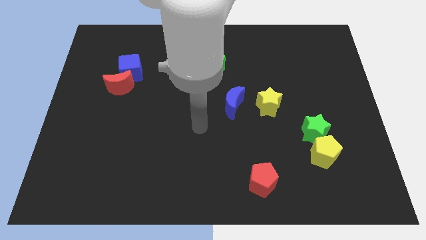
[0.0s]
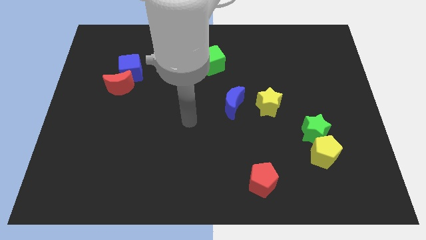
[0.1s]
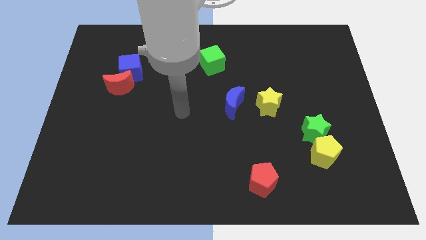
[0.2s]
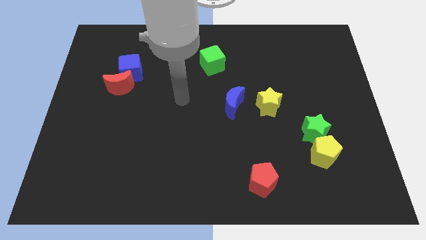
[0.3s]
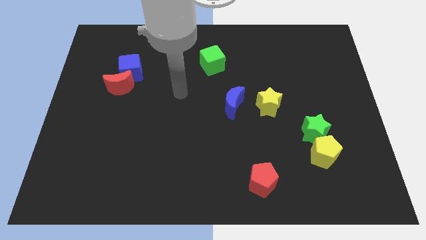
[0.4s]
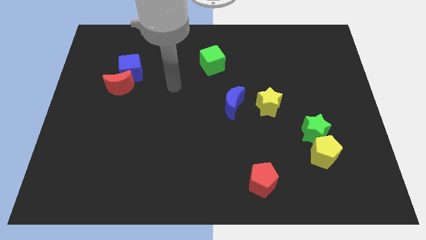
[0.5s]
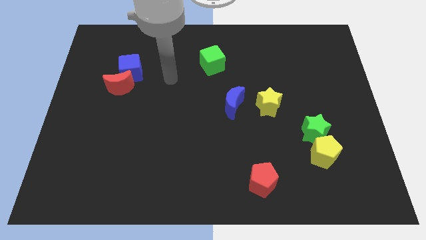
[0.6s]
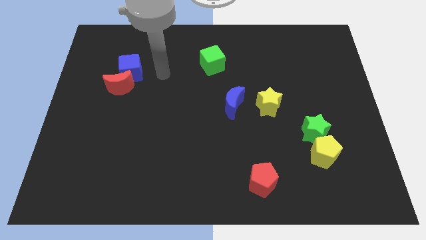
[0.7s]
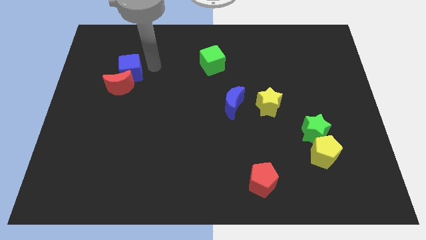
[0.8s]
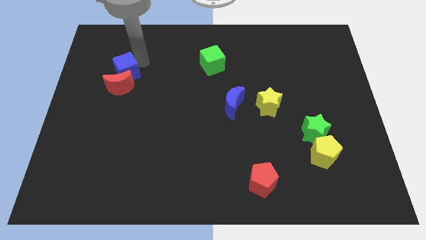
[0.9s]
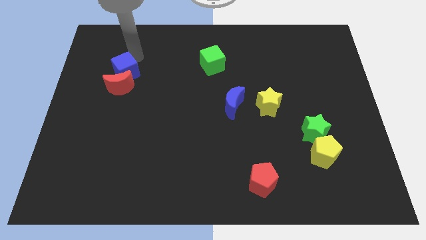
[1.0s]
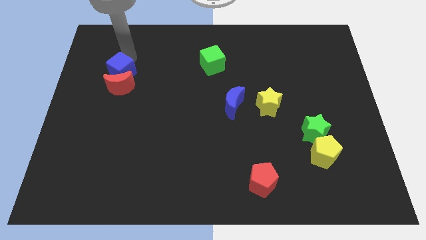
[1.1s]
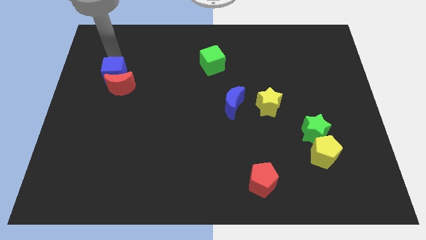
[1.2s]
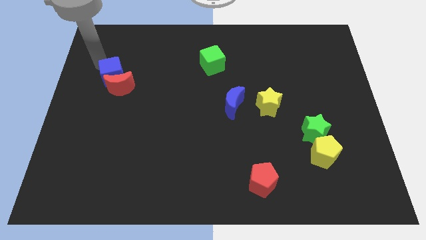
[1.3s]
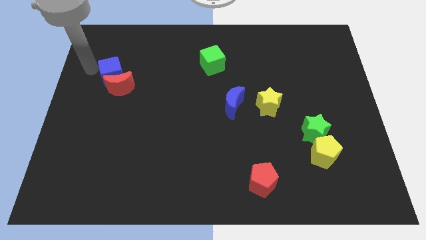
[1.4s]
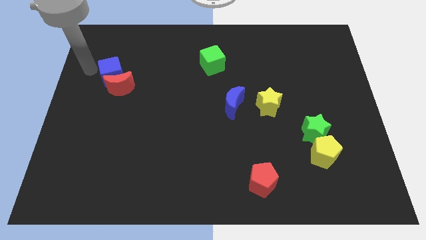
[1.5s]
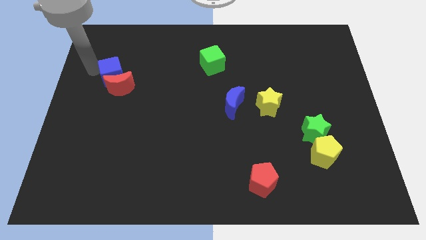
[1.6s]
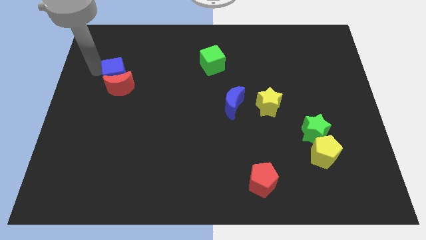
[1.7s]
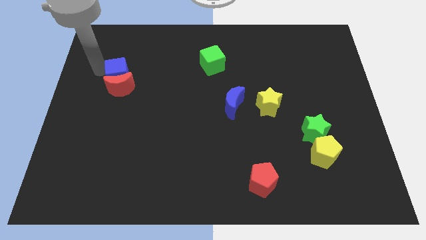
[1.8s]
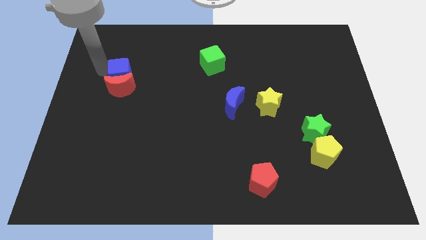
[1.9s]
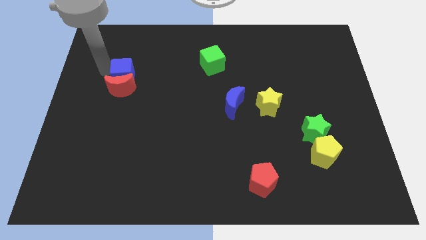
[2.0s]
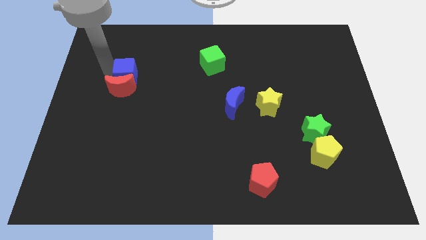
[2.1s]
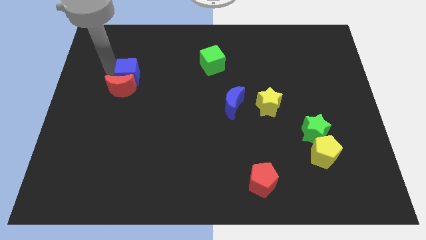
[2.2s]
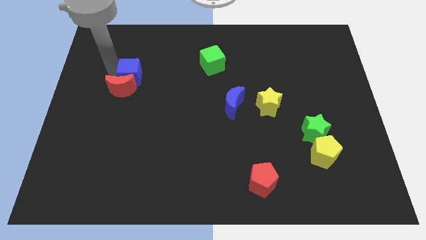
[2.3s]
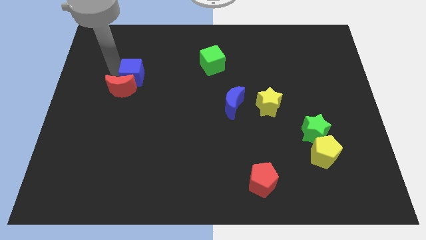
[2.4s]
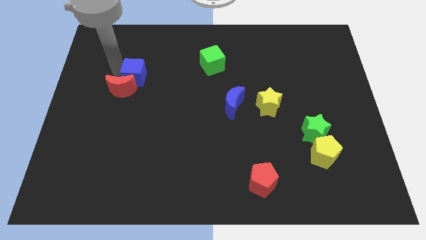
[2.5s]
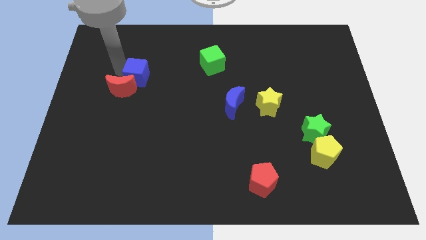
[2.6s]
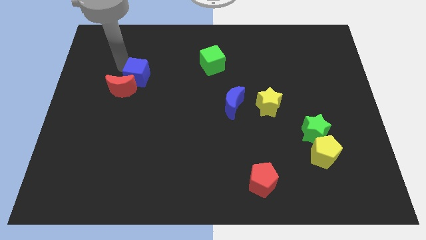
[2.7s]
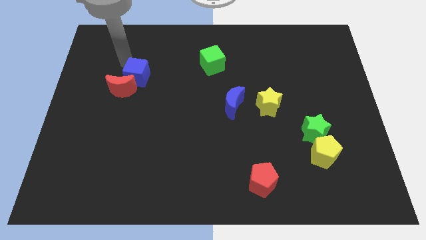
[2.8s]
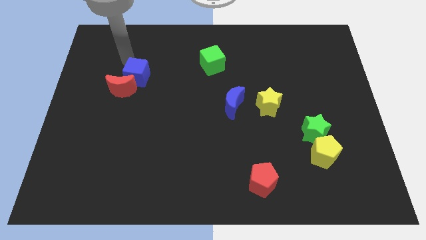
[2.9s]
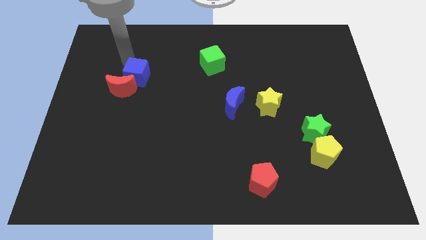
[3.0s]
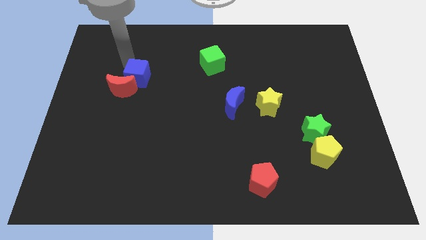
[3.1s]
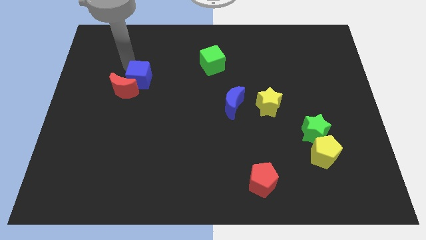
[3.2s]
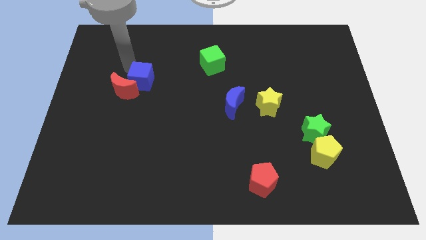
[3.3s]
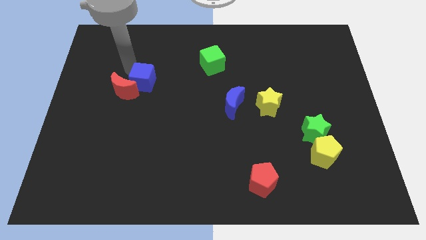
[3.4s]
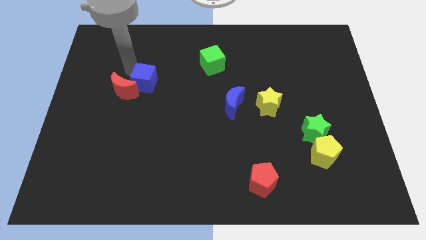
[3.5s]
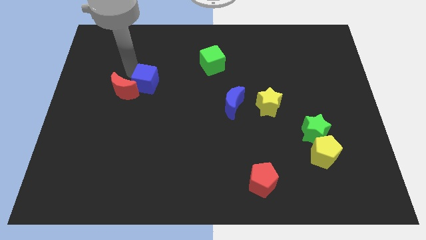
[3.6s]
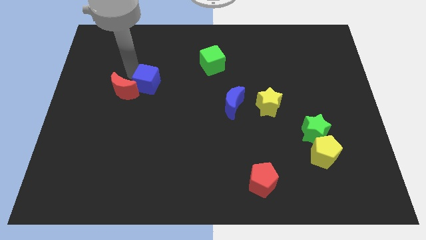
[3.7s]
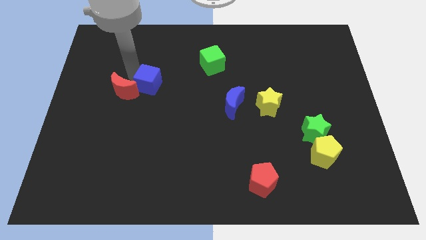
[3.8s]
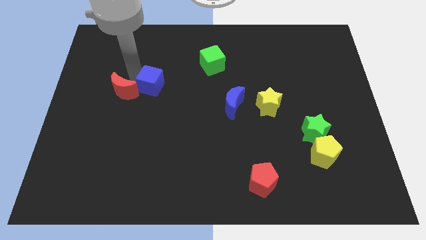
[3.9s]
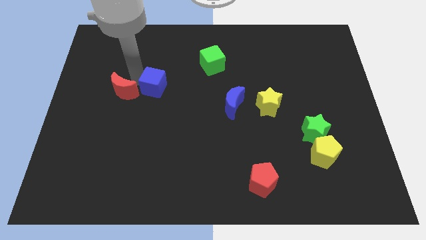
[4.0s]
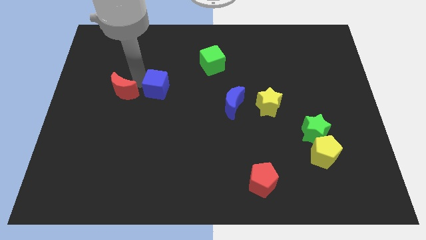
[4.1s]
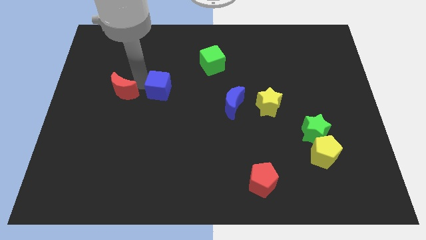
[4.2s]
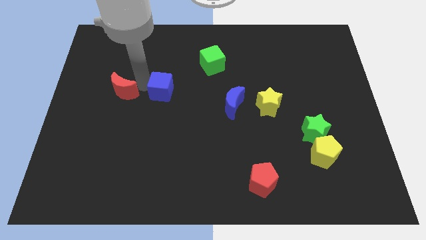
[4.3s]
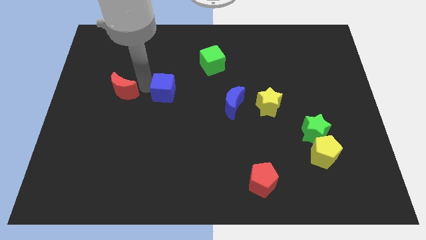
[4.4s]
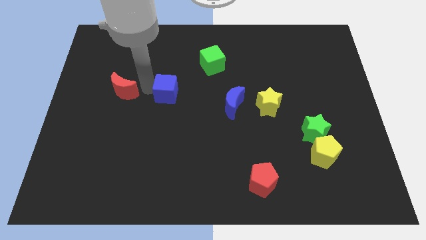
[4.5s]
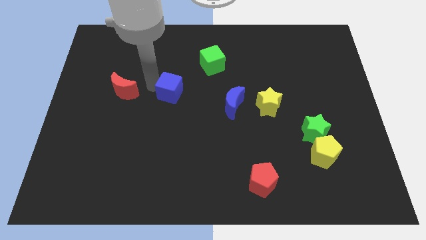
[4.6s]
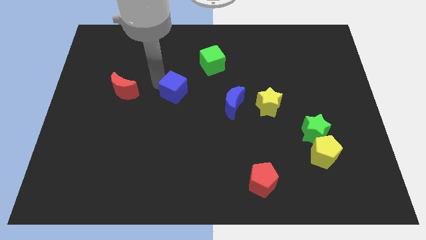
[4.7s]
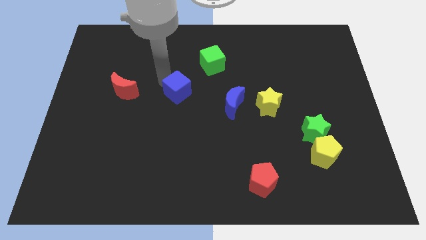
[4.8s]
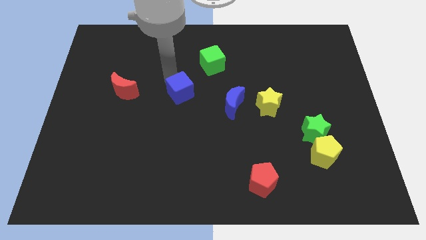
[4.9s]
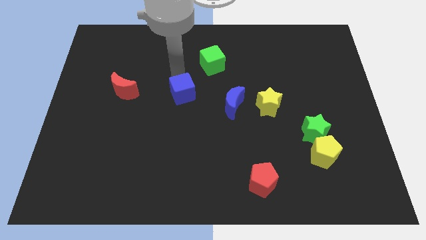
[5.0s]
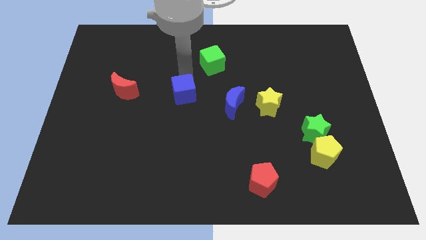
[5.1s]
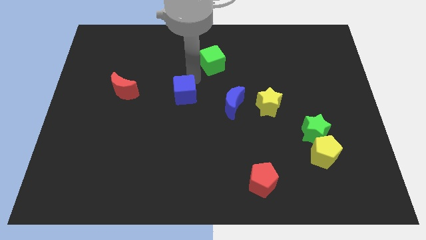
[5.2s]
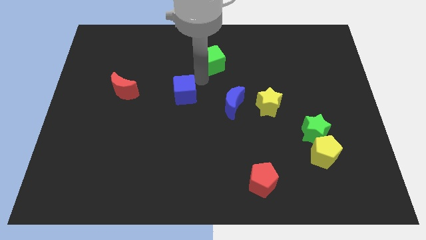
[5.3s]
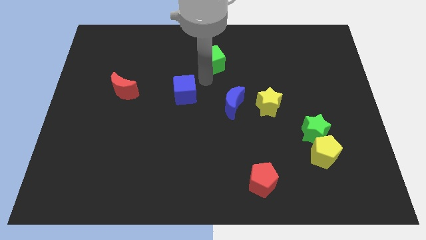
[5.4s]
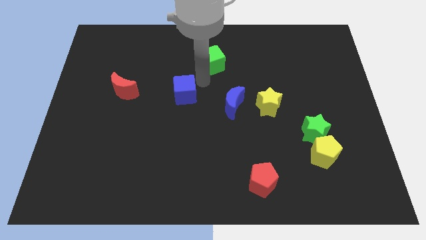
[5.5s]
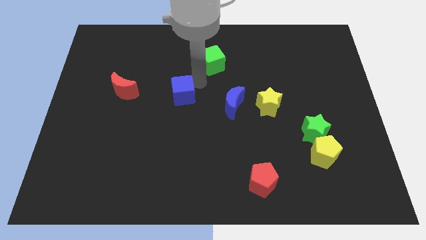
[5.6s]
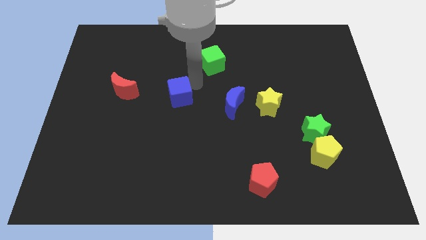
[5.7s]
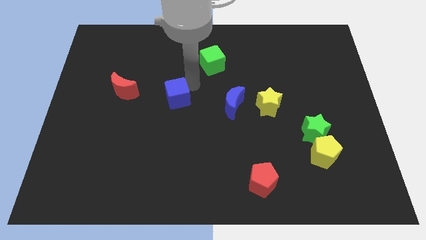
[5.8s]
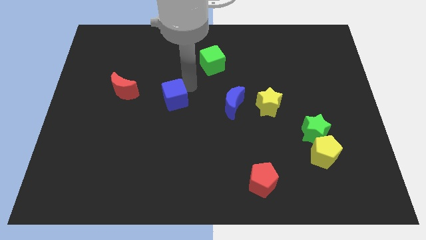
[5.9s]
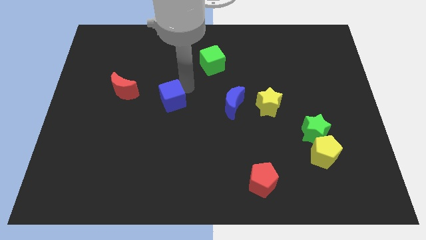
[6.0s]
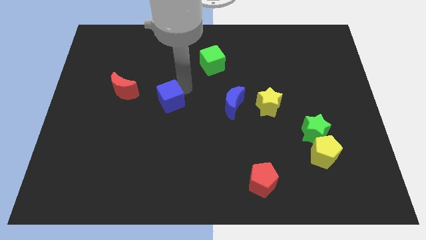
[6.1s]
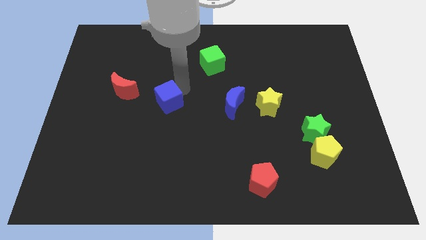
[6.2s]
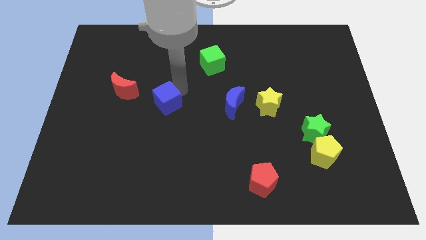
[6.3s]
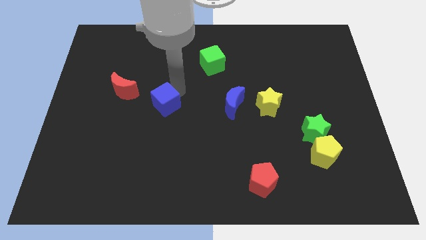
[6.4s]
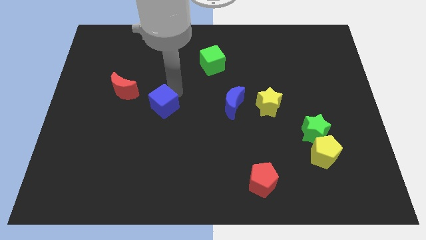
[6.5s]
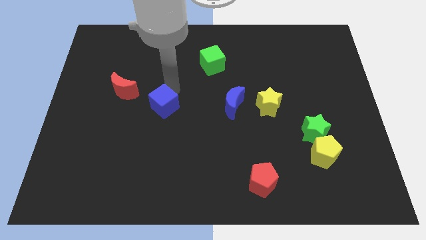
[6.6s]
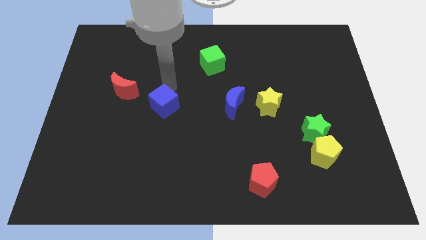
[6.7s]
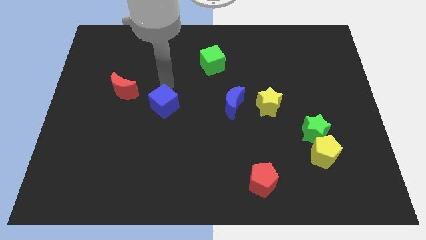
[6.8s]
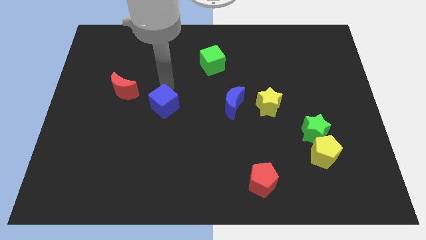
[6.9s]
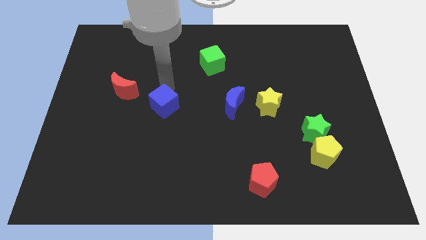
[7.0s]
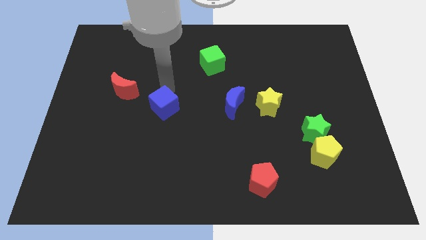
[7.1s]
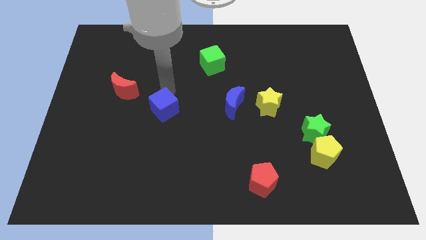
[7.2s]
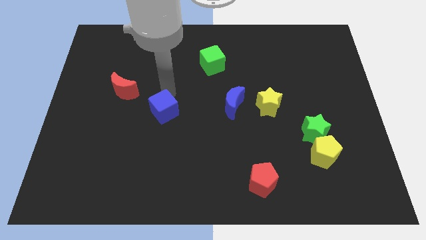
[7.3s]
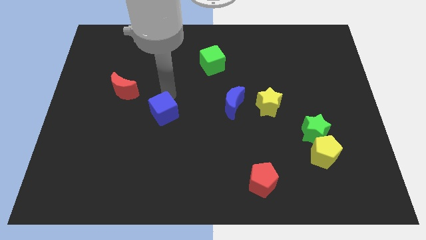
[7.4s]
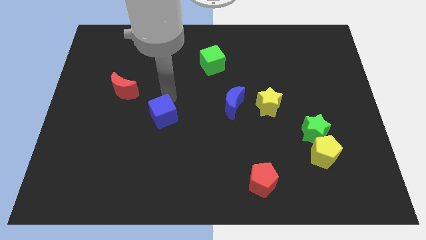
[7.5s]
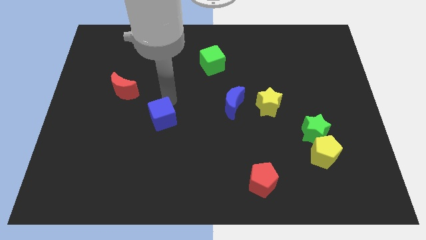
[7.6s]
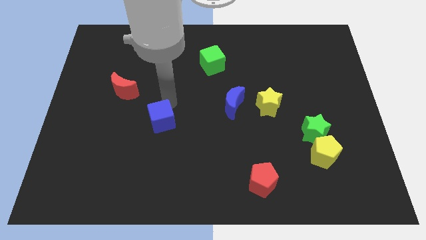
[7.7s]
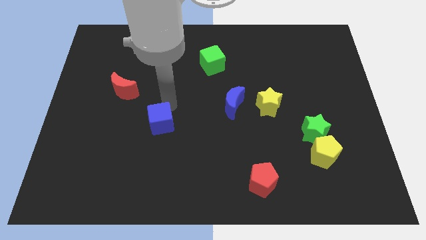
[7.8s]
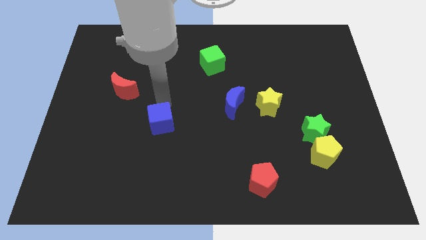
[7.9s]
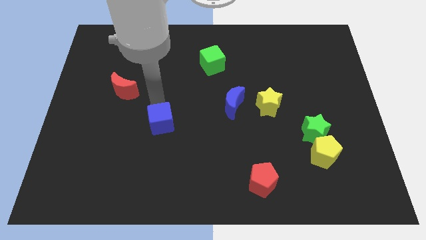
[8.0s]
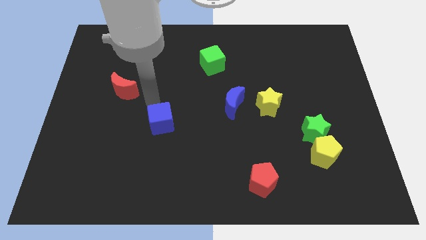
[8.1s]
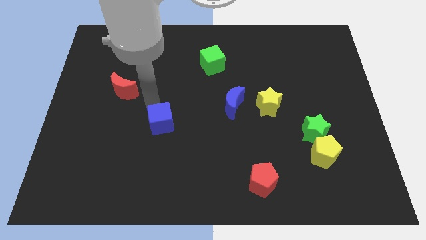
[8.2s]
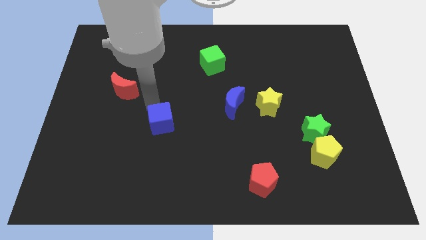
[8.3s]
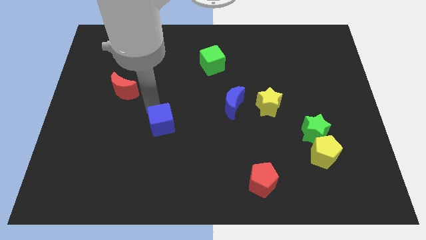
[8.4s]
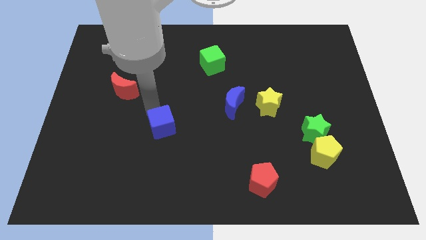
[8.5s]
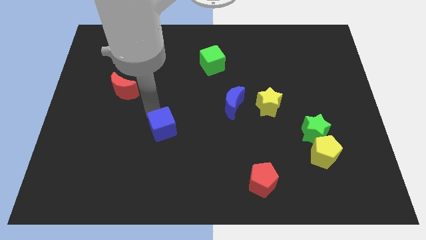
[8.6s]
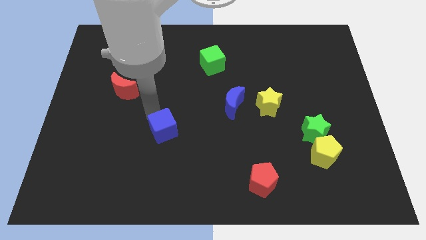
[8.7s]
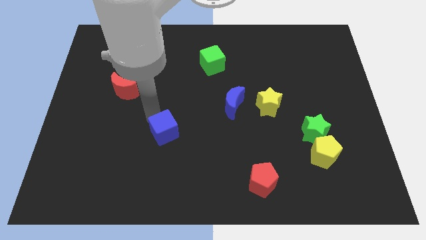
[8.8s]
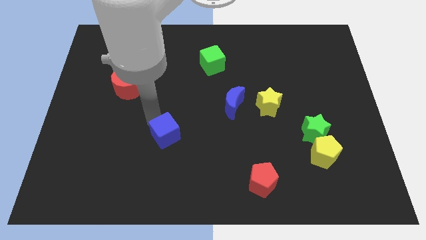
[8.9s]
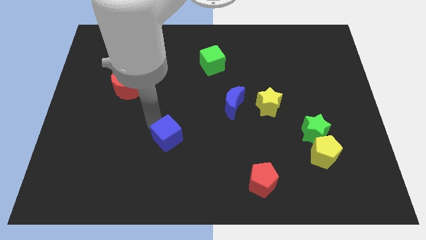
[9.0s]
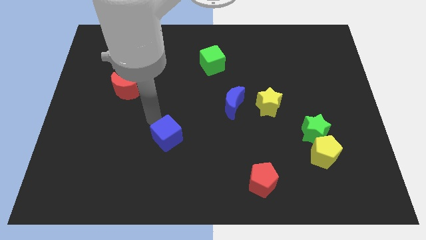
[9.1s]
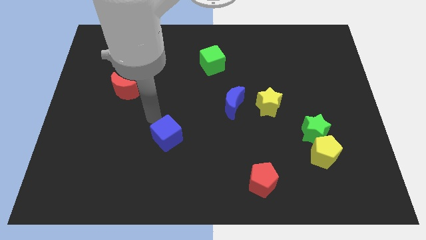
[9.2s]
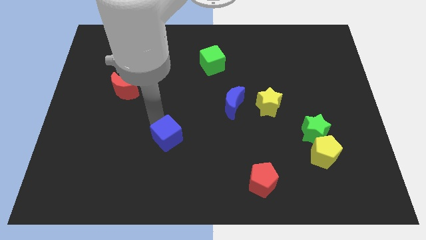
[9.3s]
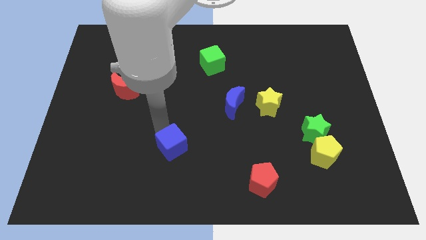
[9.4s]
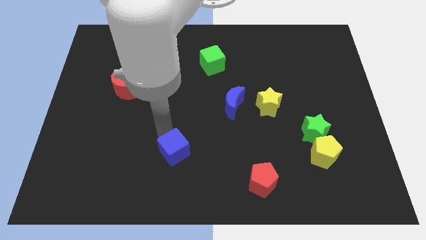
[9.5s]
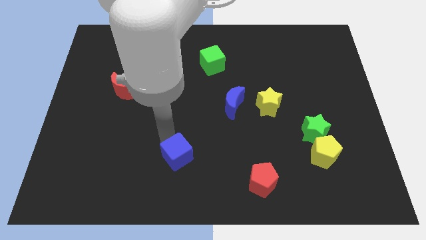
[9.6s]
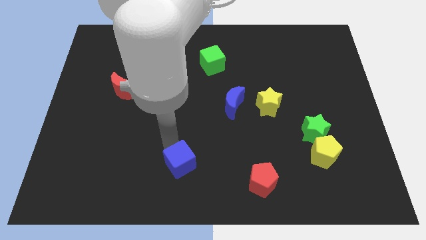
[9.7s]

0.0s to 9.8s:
push the blue cube to the bottom side
